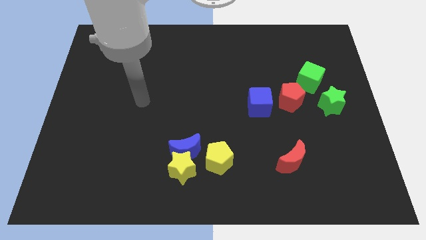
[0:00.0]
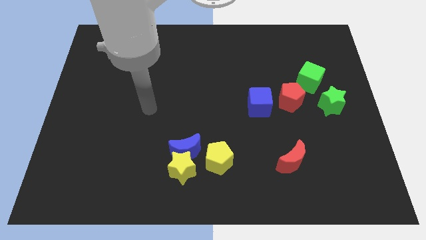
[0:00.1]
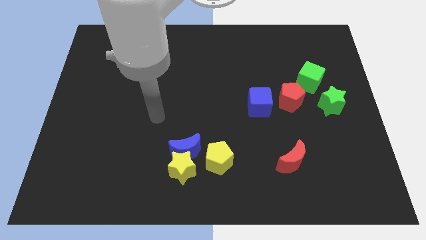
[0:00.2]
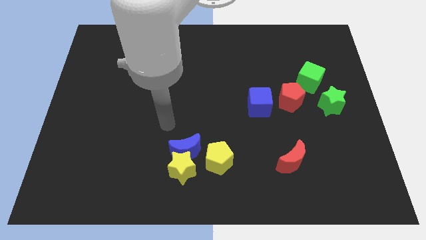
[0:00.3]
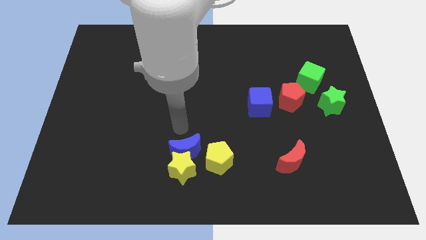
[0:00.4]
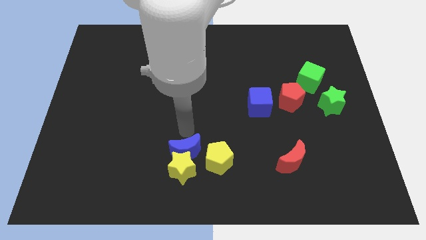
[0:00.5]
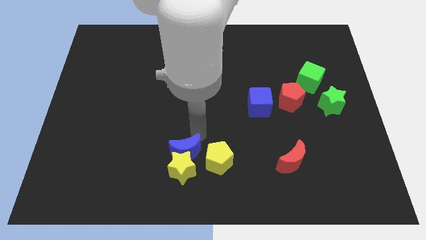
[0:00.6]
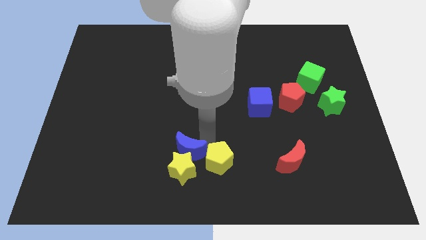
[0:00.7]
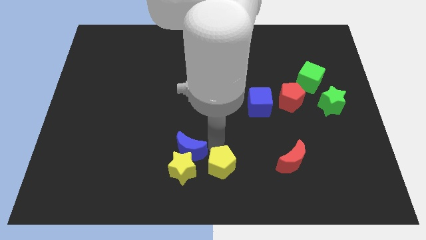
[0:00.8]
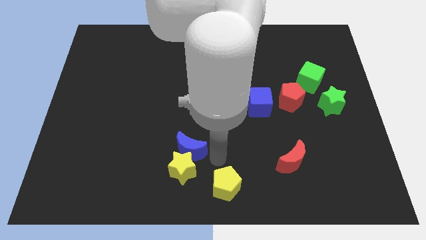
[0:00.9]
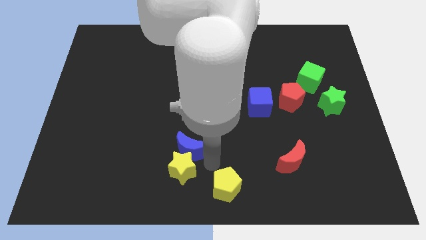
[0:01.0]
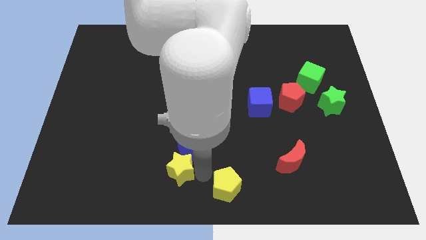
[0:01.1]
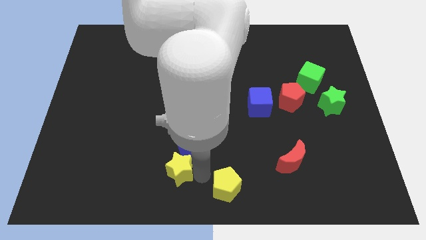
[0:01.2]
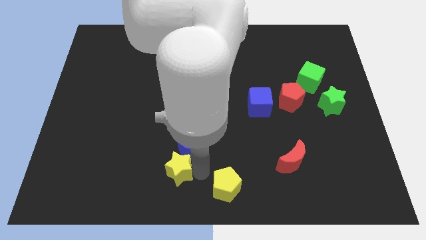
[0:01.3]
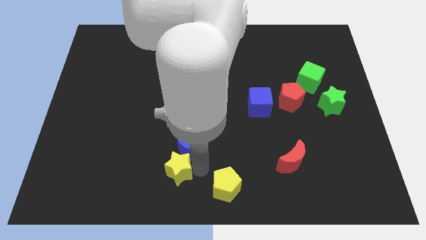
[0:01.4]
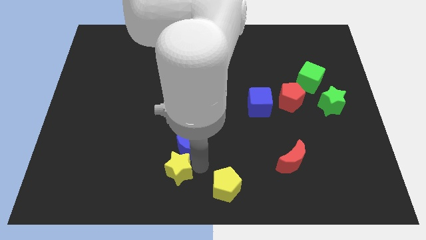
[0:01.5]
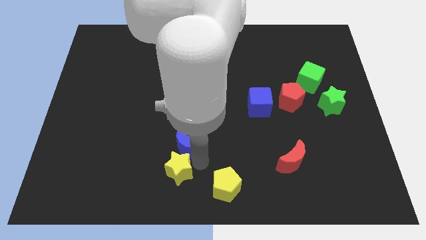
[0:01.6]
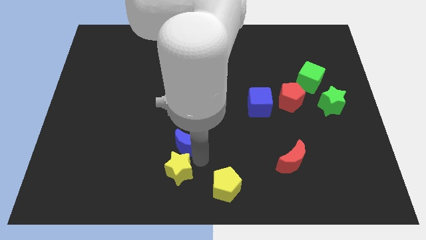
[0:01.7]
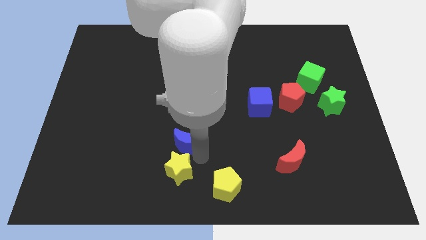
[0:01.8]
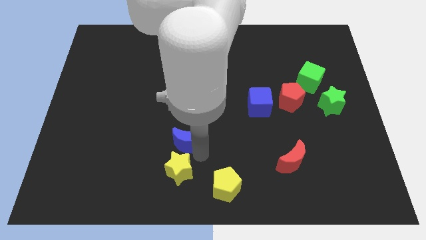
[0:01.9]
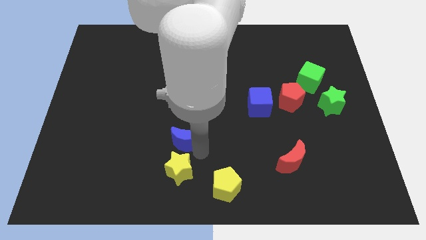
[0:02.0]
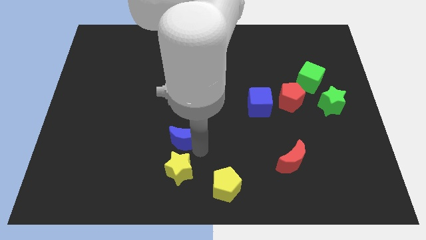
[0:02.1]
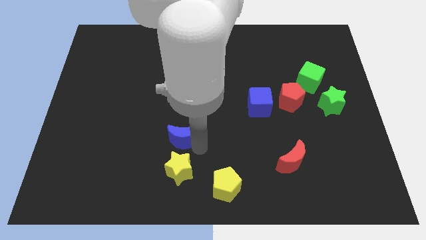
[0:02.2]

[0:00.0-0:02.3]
separate the blue moon from the yellow star and yellow pentagon

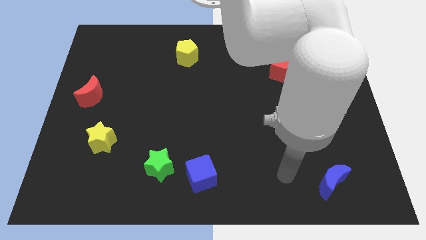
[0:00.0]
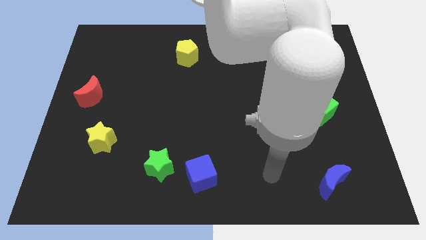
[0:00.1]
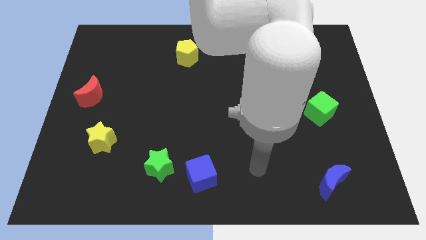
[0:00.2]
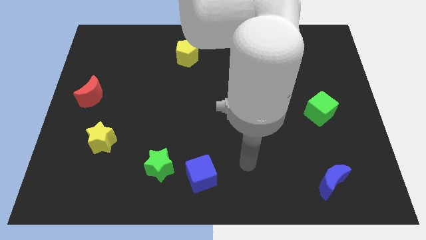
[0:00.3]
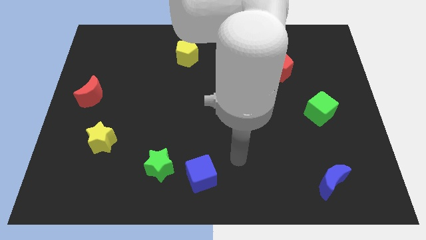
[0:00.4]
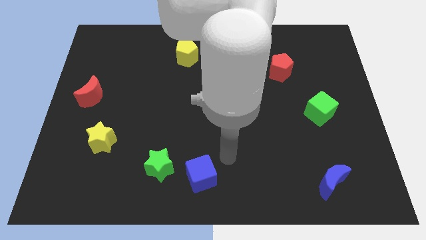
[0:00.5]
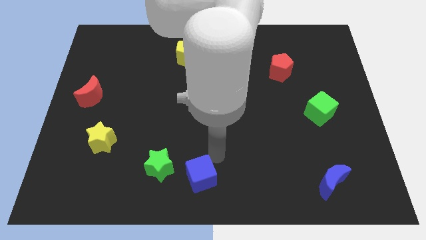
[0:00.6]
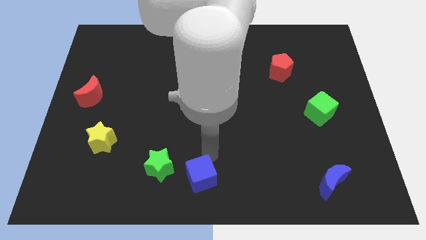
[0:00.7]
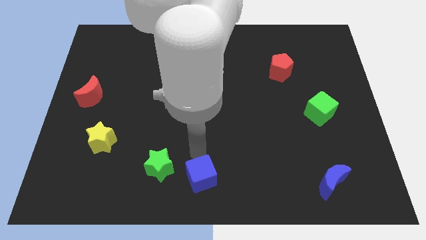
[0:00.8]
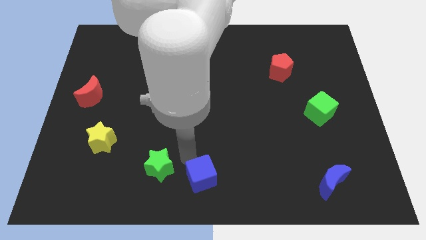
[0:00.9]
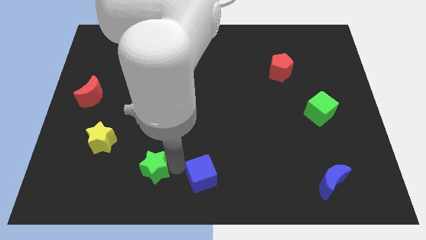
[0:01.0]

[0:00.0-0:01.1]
move the blue cube away from the green star

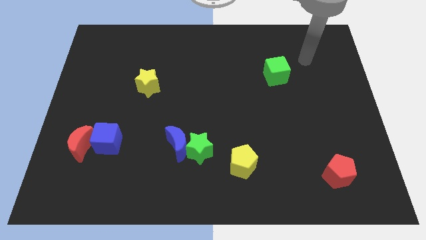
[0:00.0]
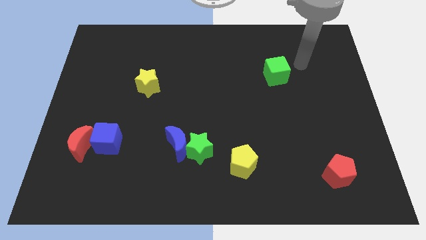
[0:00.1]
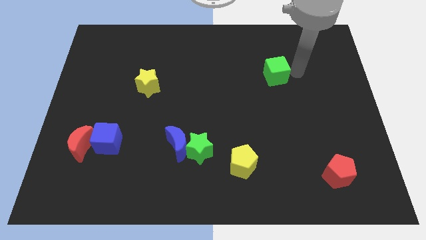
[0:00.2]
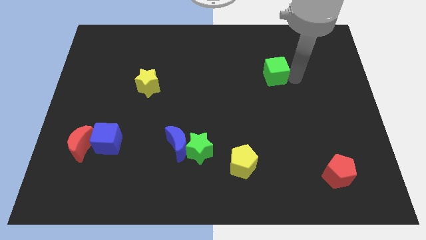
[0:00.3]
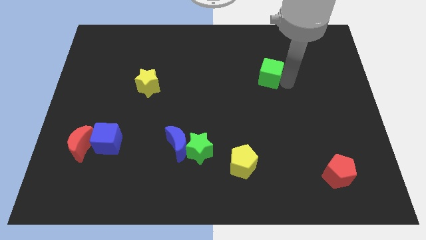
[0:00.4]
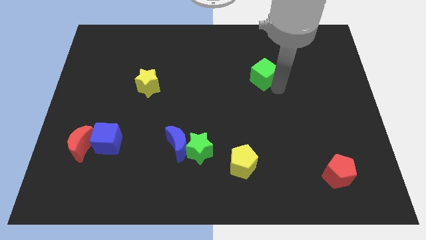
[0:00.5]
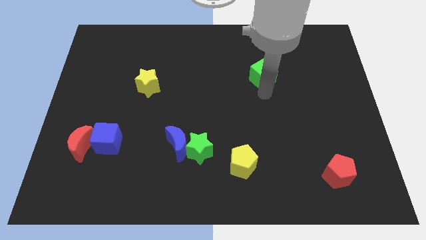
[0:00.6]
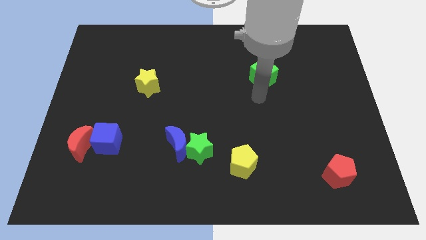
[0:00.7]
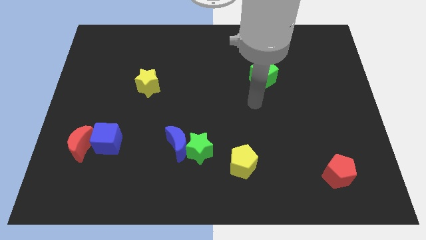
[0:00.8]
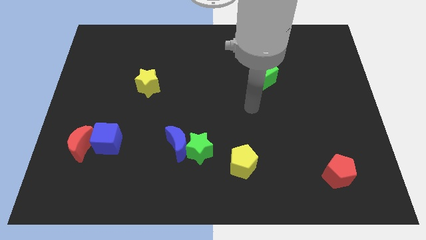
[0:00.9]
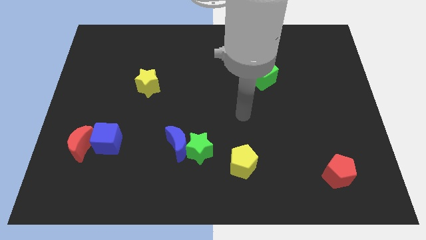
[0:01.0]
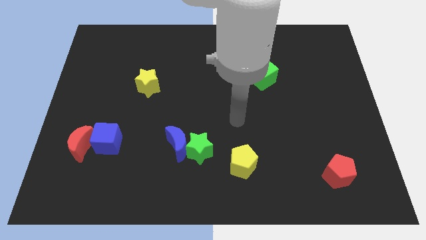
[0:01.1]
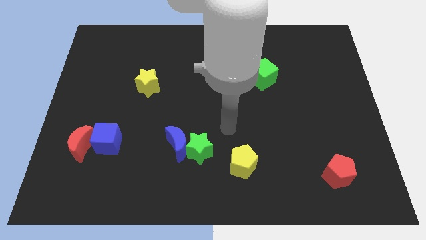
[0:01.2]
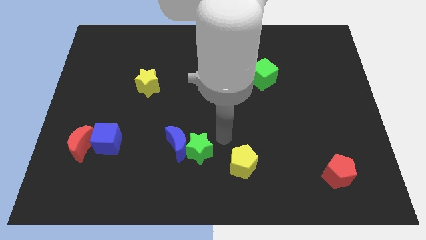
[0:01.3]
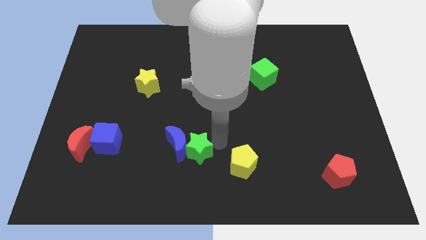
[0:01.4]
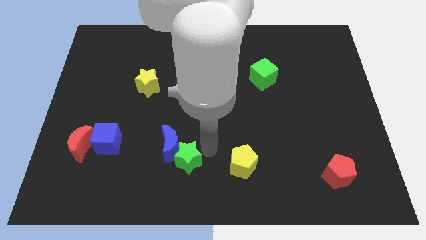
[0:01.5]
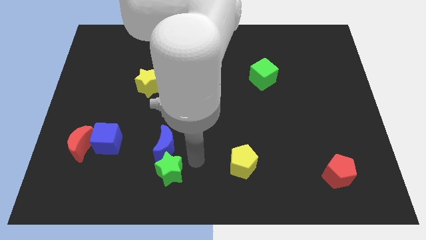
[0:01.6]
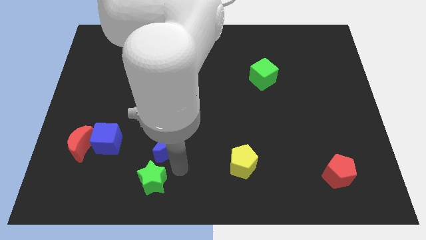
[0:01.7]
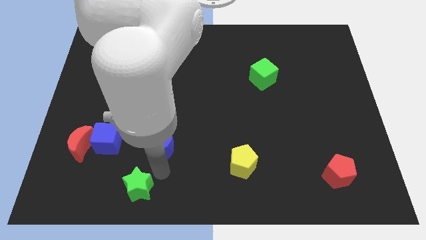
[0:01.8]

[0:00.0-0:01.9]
pull the blue moon apart from the green star

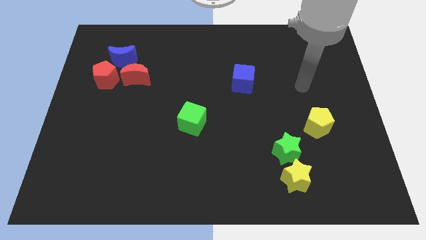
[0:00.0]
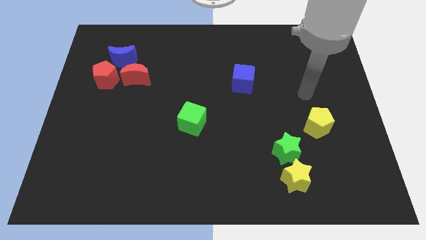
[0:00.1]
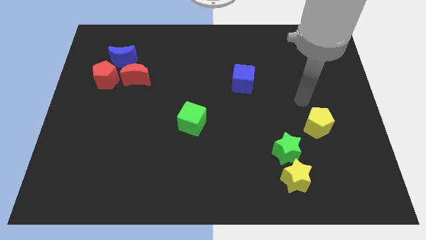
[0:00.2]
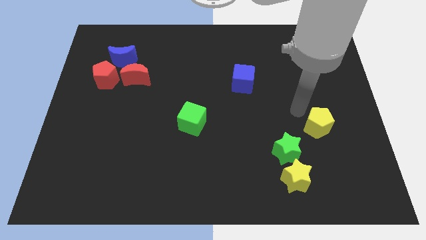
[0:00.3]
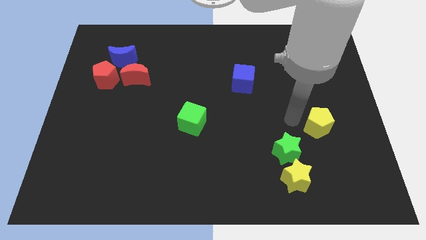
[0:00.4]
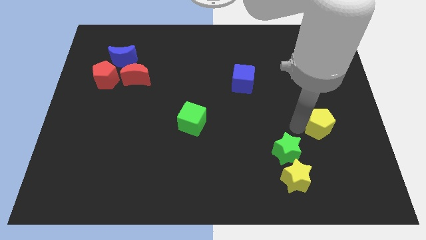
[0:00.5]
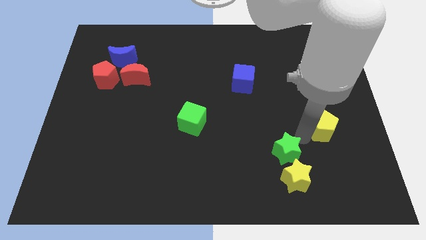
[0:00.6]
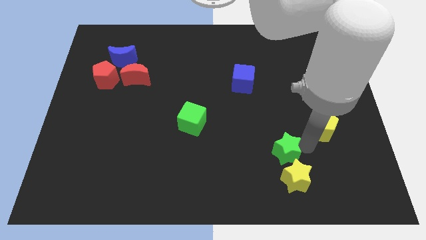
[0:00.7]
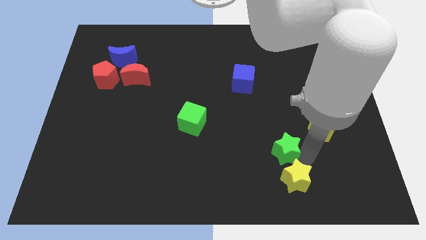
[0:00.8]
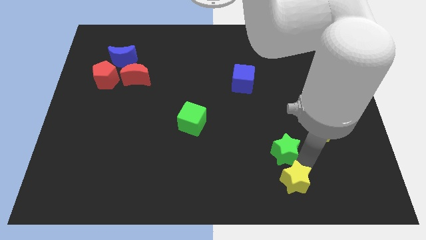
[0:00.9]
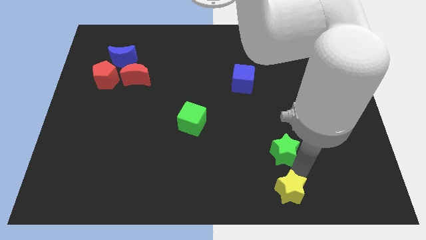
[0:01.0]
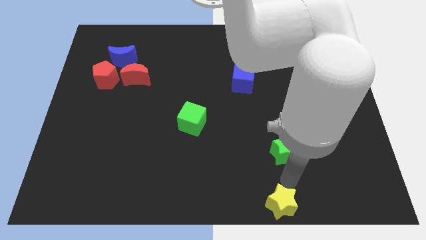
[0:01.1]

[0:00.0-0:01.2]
separate the green star from the yellow star

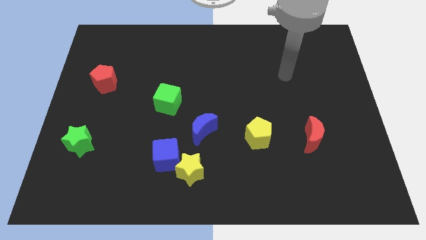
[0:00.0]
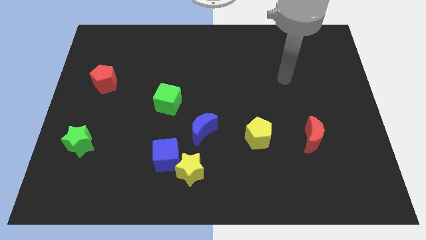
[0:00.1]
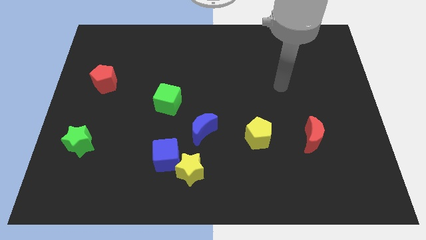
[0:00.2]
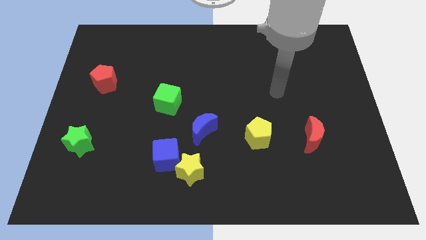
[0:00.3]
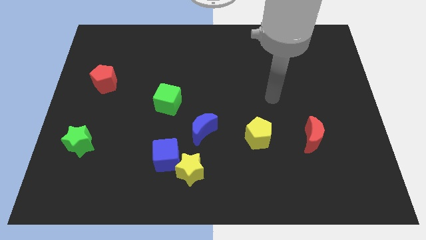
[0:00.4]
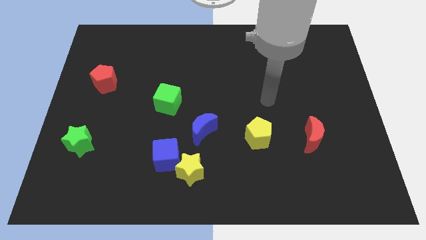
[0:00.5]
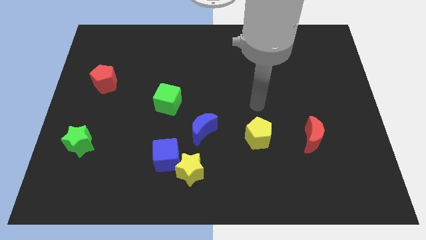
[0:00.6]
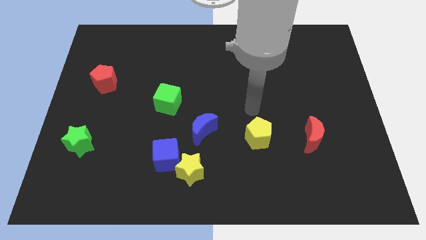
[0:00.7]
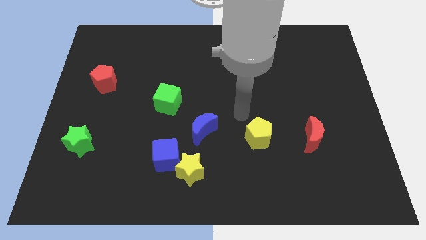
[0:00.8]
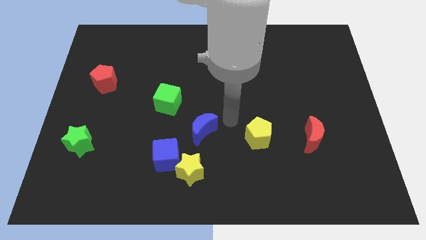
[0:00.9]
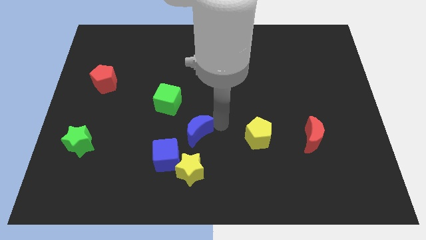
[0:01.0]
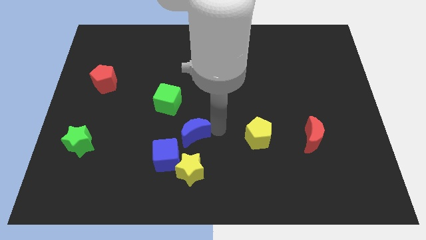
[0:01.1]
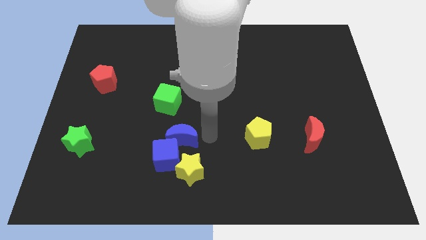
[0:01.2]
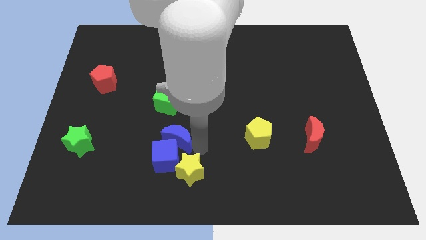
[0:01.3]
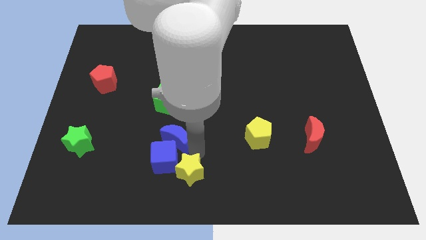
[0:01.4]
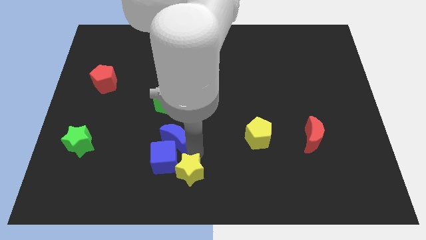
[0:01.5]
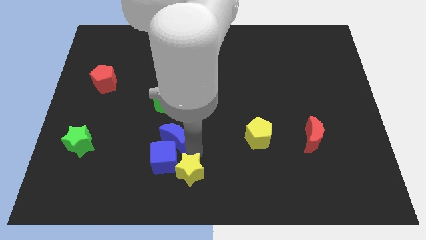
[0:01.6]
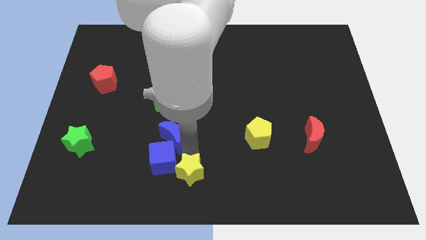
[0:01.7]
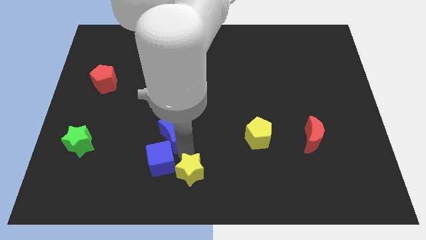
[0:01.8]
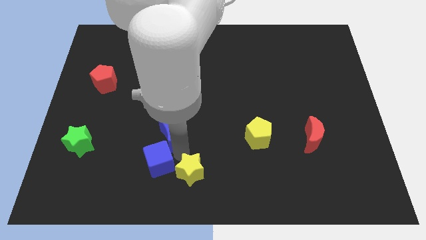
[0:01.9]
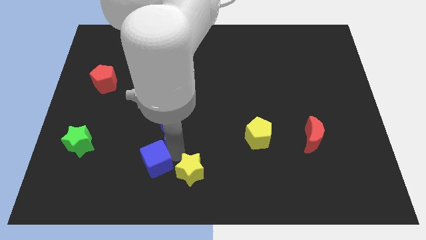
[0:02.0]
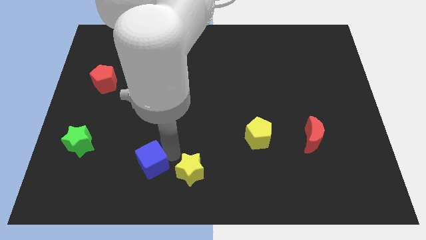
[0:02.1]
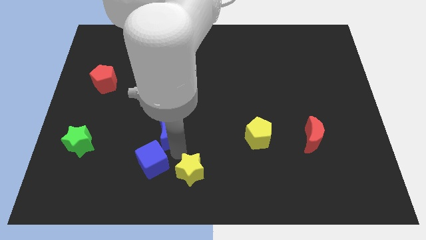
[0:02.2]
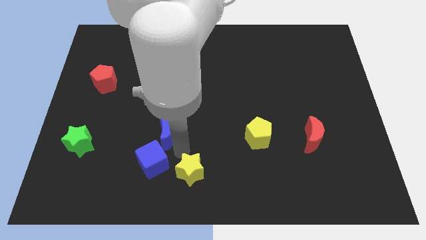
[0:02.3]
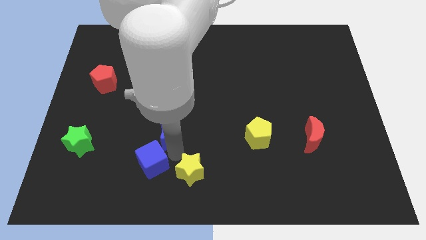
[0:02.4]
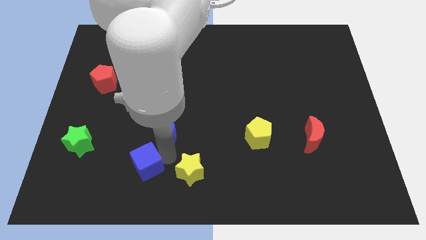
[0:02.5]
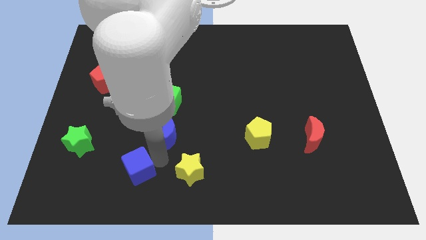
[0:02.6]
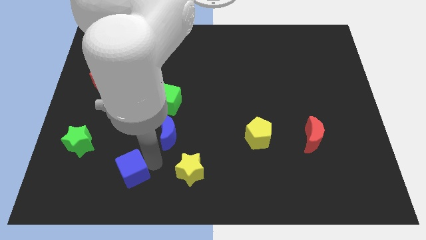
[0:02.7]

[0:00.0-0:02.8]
move the blue cube away from the yellow star and blue moon

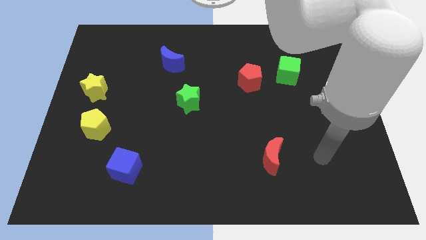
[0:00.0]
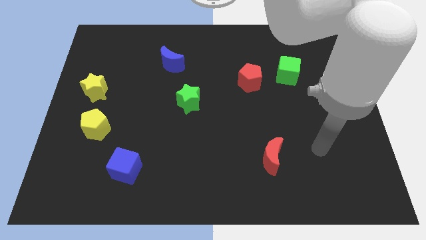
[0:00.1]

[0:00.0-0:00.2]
pull the red pentagon apart from the green cube
